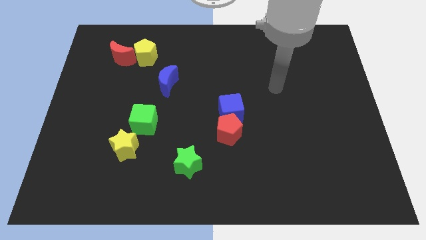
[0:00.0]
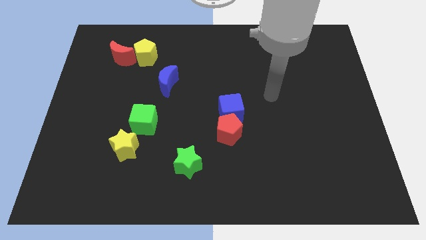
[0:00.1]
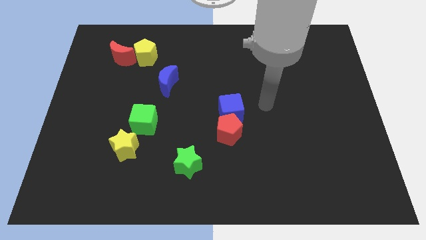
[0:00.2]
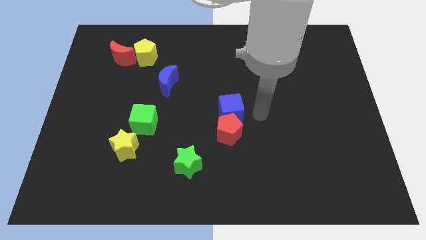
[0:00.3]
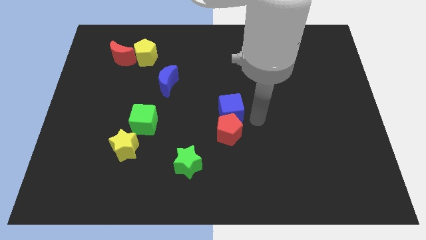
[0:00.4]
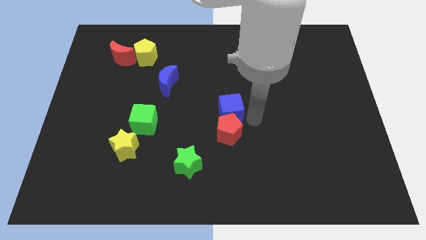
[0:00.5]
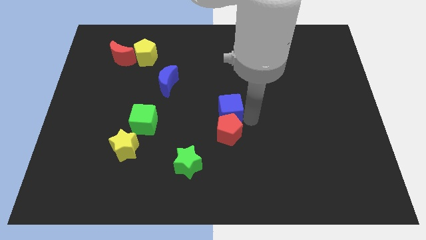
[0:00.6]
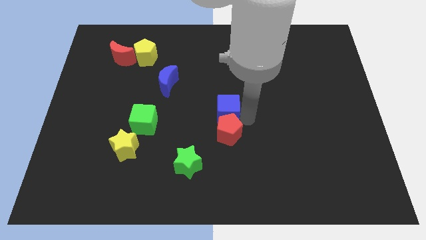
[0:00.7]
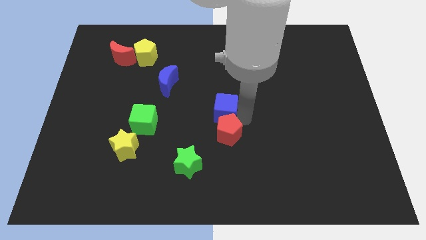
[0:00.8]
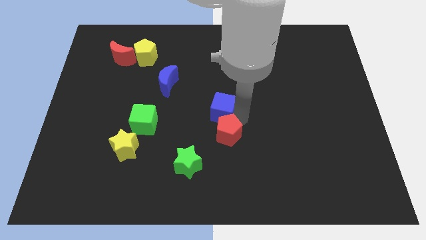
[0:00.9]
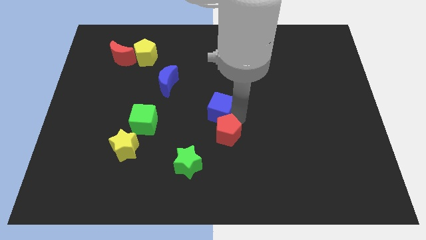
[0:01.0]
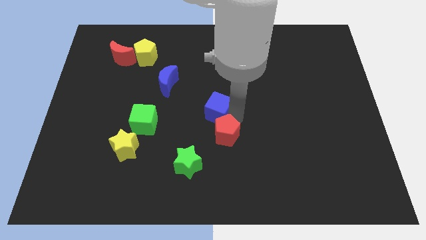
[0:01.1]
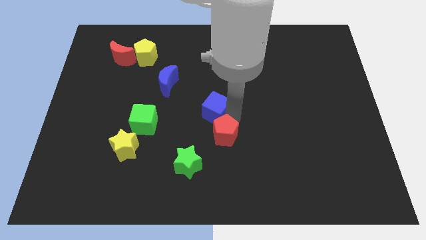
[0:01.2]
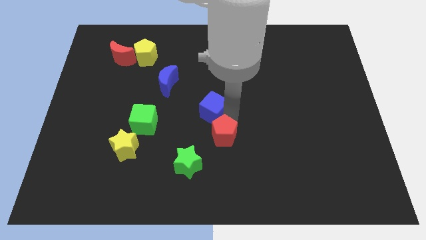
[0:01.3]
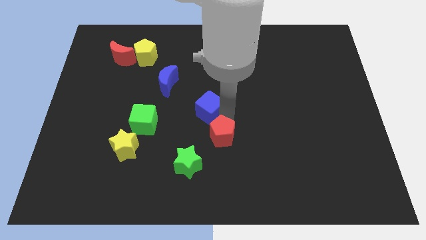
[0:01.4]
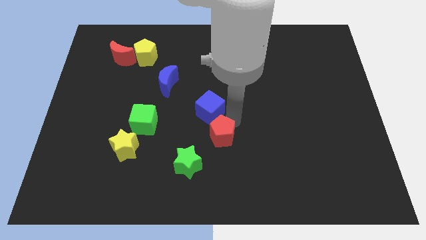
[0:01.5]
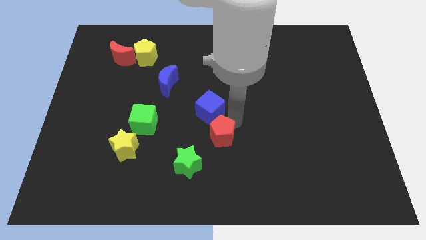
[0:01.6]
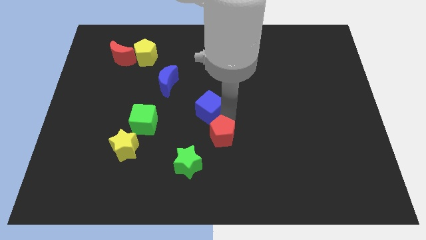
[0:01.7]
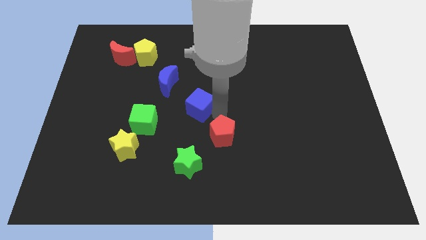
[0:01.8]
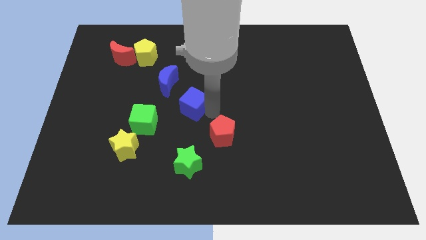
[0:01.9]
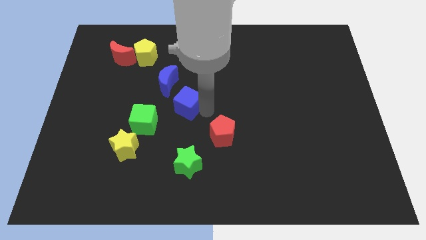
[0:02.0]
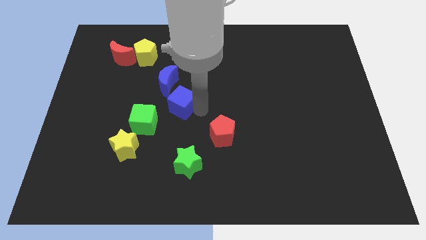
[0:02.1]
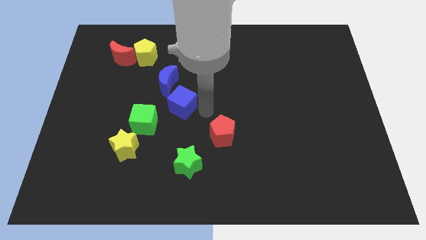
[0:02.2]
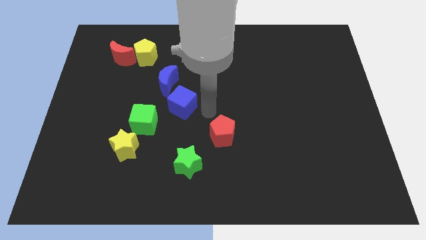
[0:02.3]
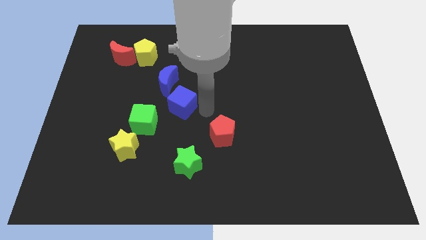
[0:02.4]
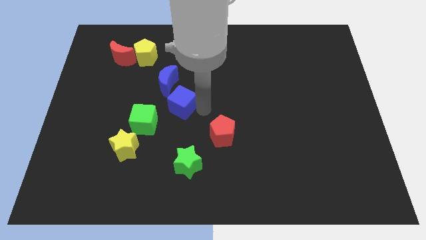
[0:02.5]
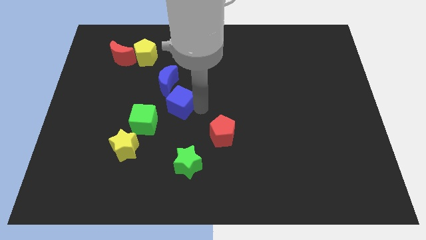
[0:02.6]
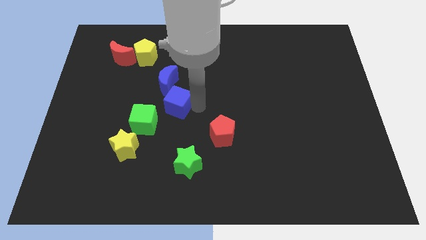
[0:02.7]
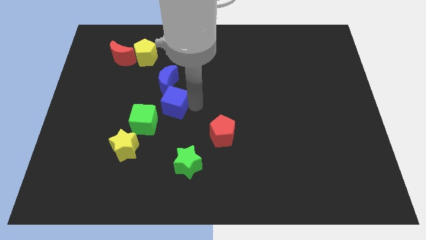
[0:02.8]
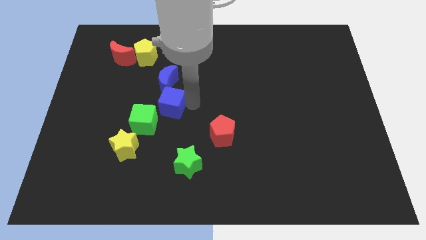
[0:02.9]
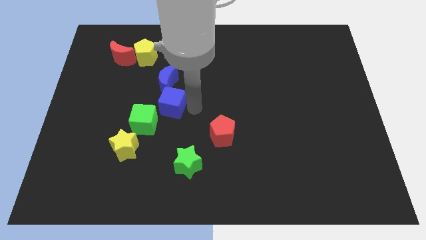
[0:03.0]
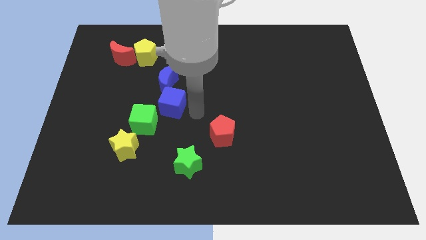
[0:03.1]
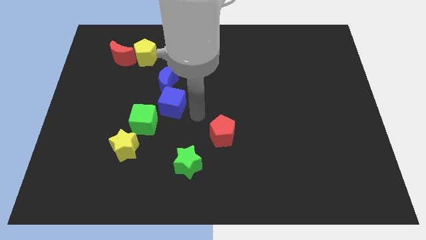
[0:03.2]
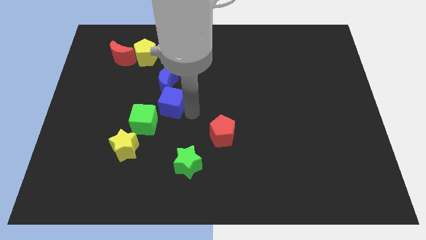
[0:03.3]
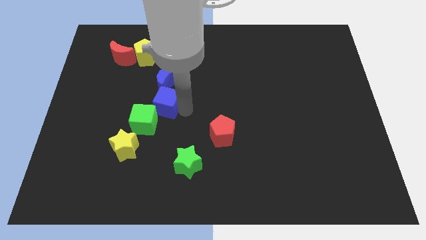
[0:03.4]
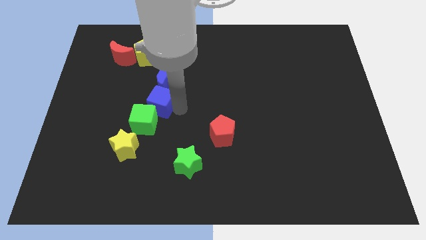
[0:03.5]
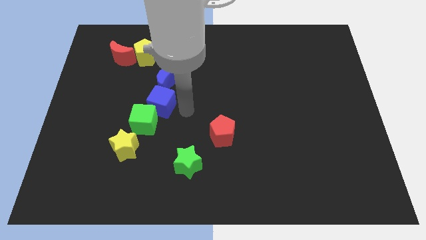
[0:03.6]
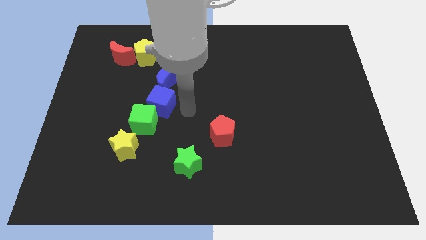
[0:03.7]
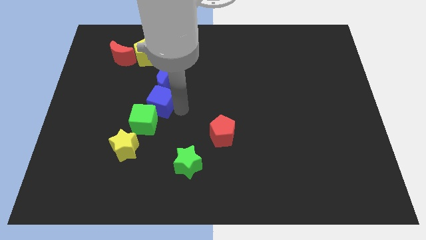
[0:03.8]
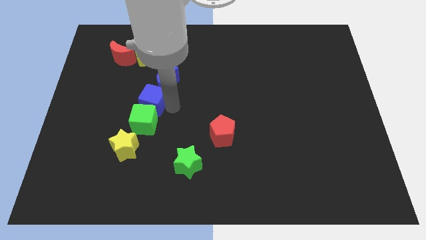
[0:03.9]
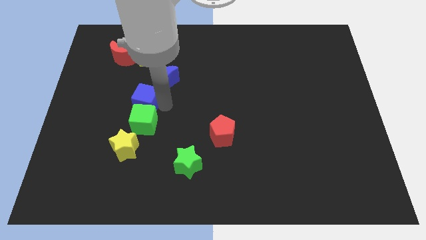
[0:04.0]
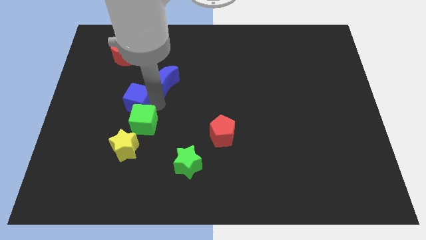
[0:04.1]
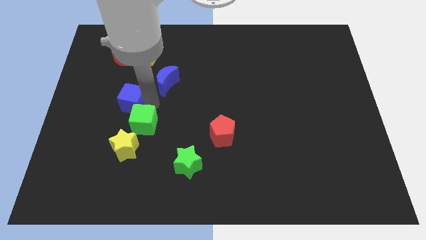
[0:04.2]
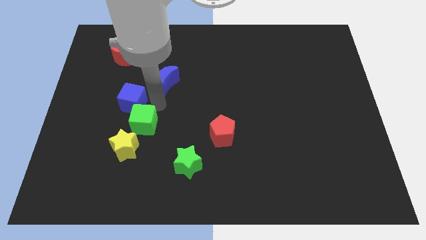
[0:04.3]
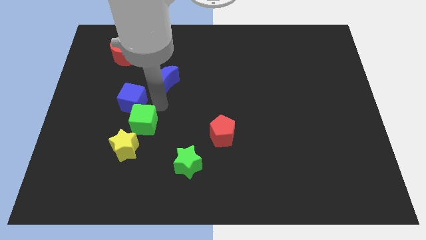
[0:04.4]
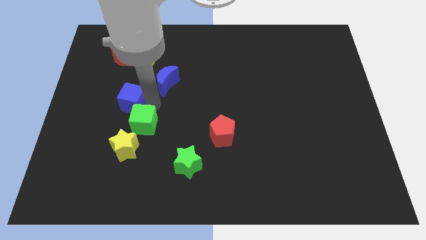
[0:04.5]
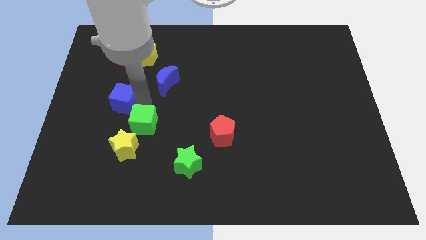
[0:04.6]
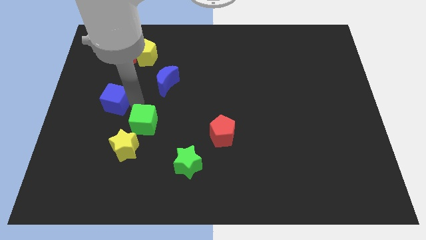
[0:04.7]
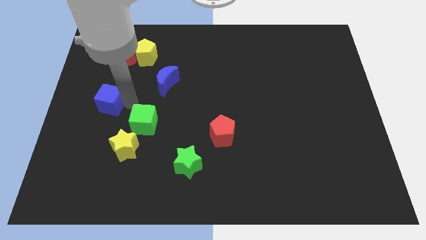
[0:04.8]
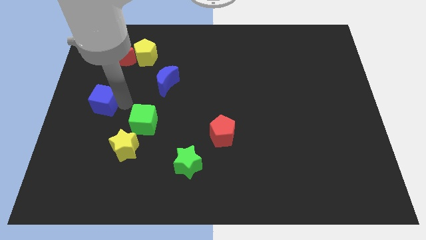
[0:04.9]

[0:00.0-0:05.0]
move the blue cube to the center left

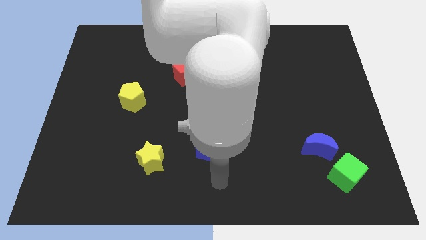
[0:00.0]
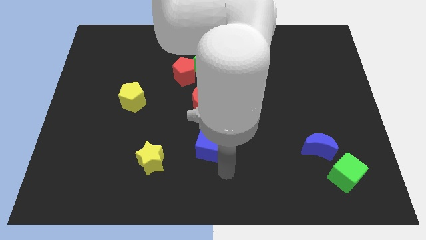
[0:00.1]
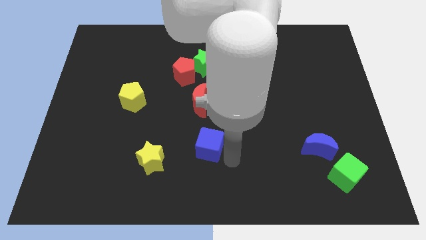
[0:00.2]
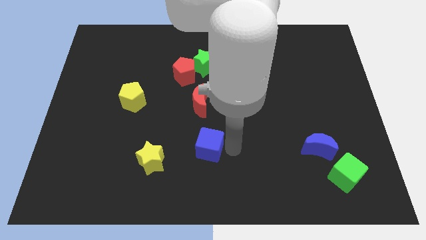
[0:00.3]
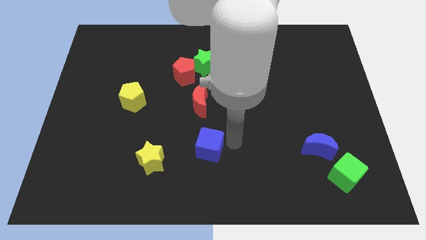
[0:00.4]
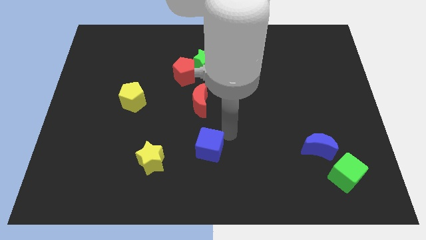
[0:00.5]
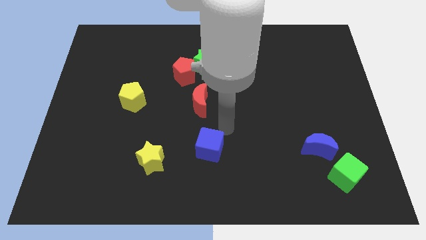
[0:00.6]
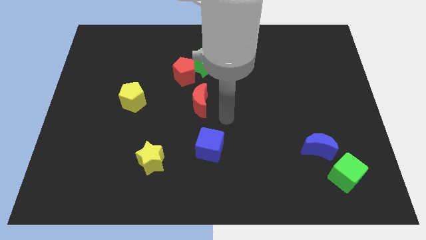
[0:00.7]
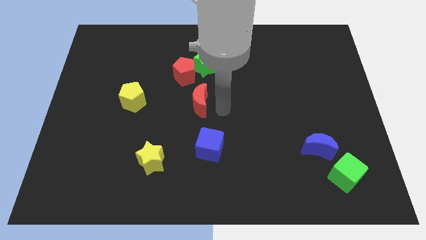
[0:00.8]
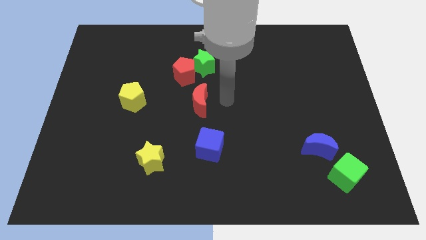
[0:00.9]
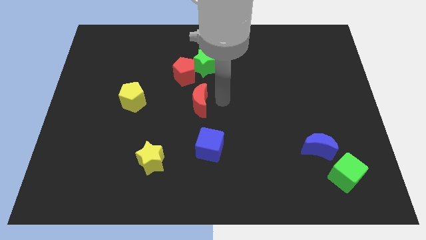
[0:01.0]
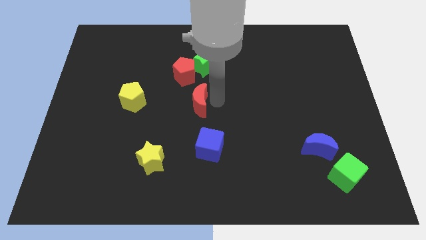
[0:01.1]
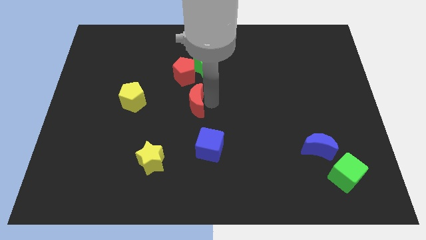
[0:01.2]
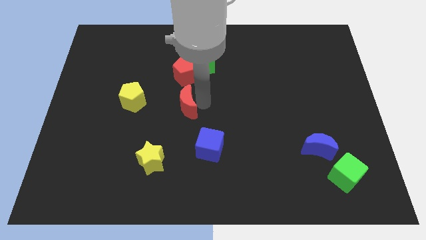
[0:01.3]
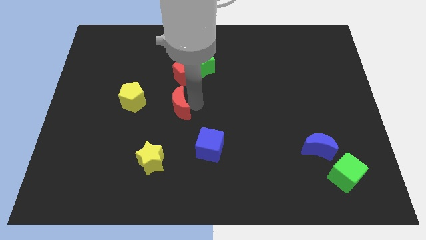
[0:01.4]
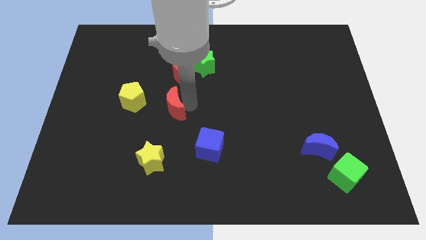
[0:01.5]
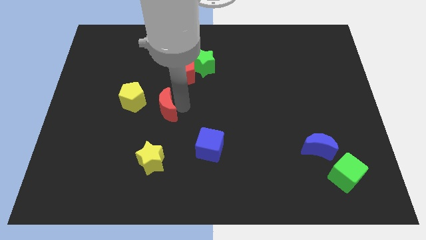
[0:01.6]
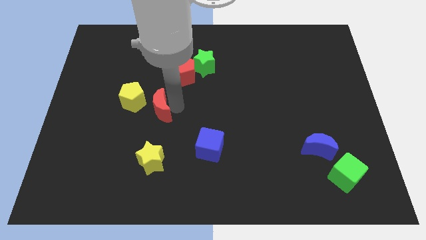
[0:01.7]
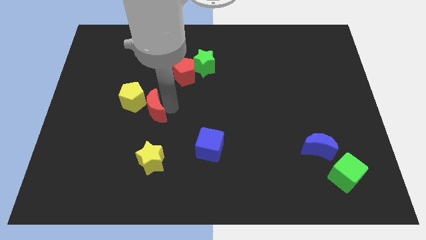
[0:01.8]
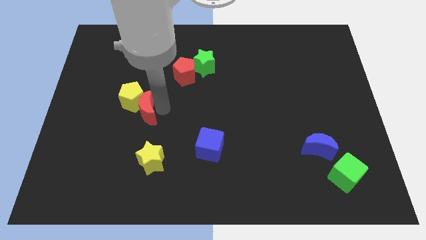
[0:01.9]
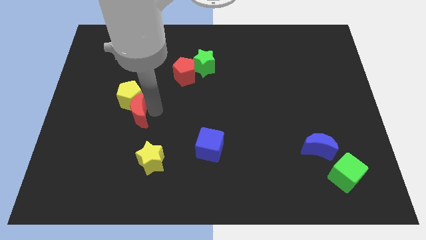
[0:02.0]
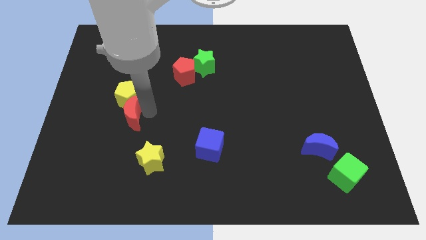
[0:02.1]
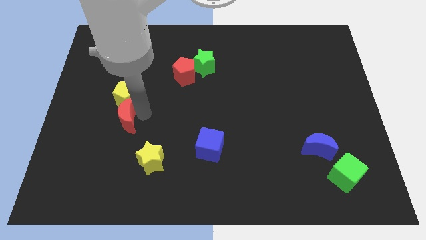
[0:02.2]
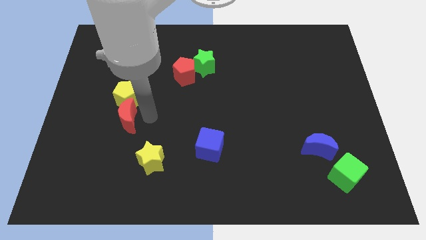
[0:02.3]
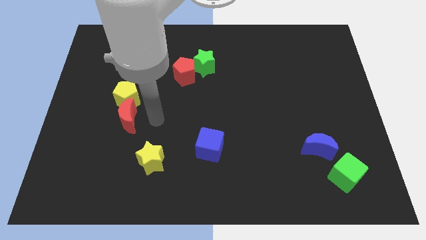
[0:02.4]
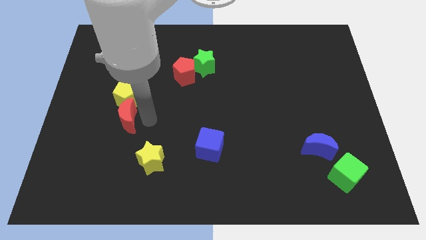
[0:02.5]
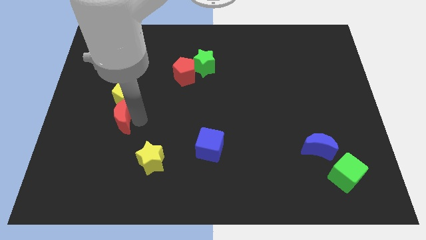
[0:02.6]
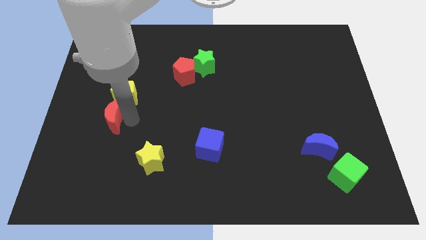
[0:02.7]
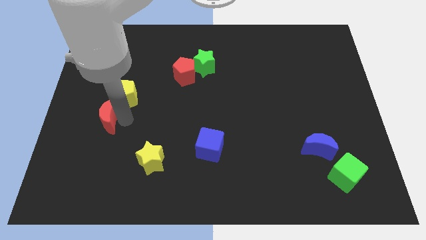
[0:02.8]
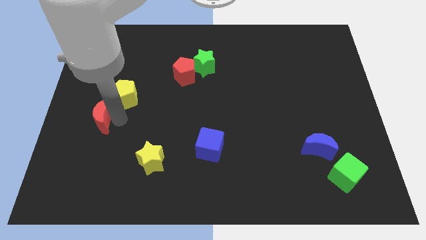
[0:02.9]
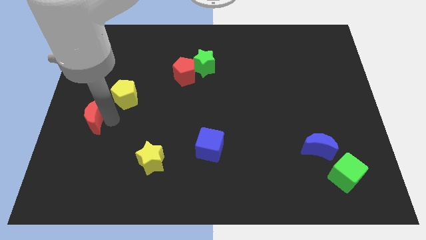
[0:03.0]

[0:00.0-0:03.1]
slide the red moon to the left side of the board
